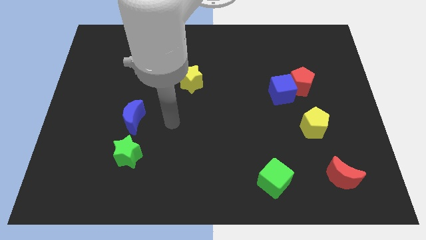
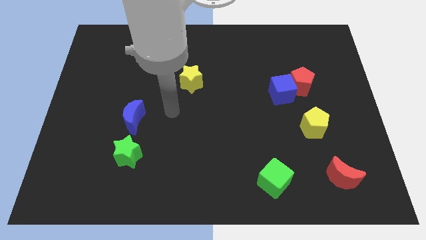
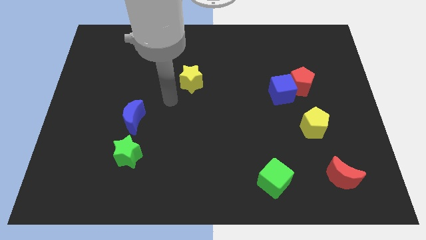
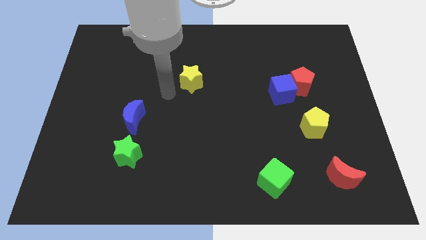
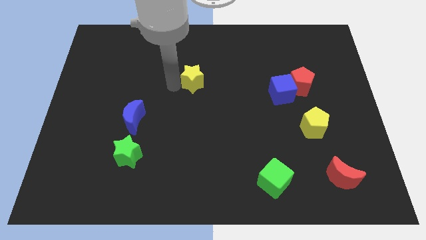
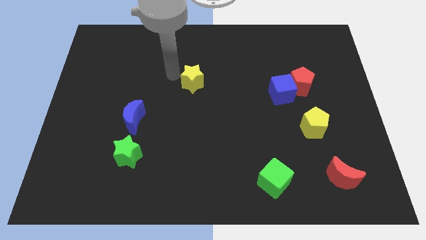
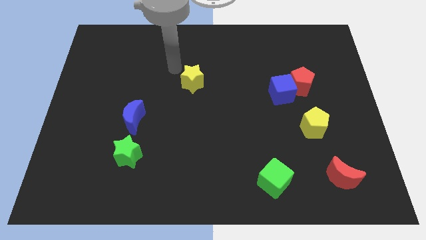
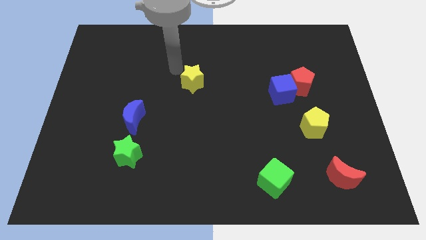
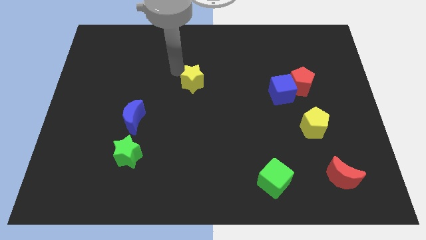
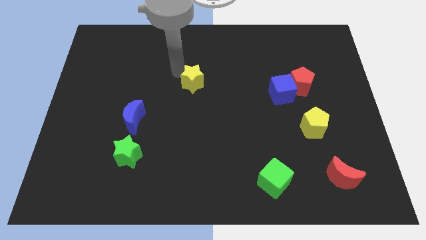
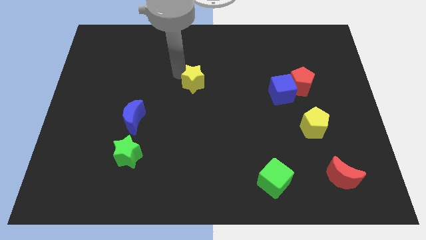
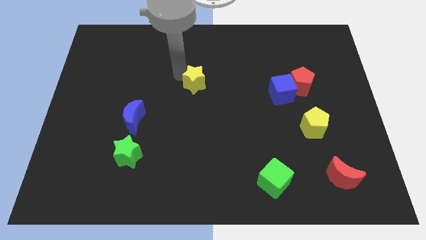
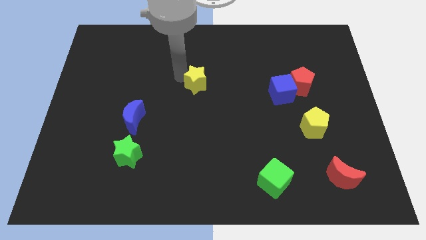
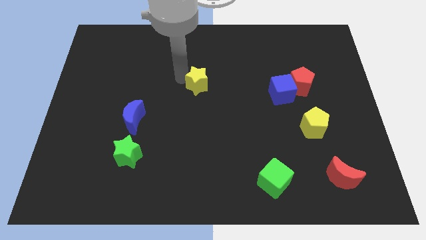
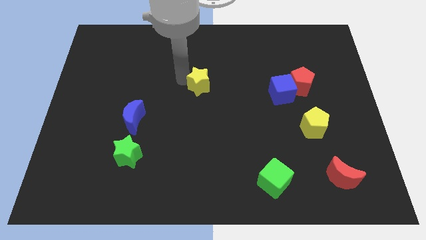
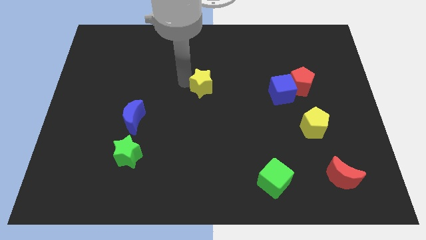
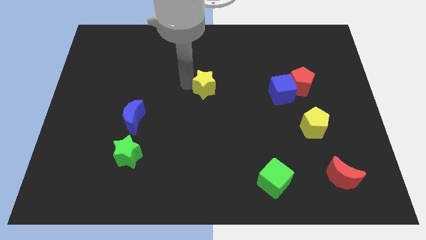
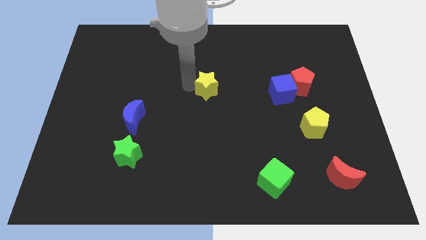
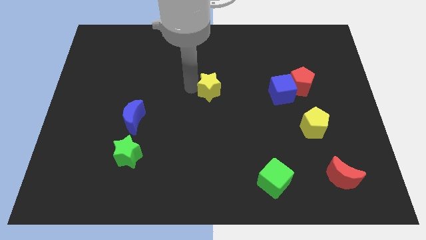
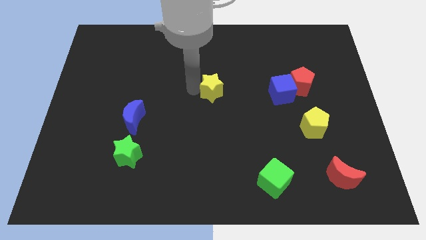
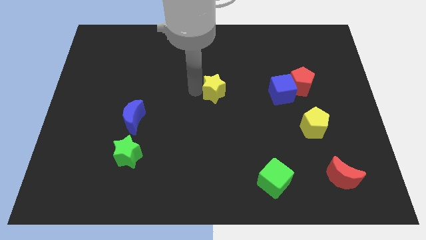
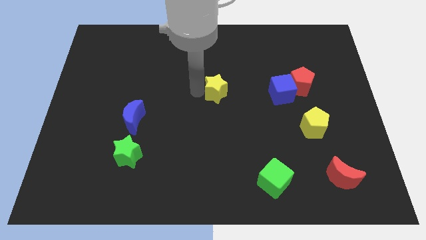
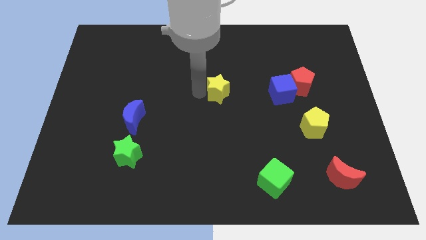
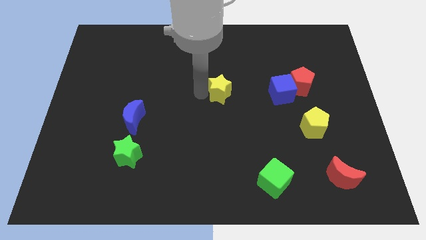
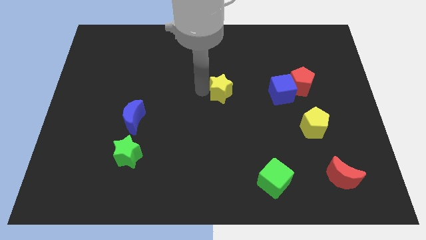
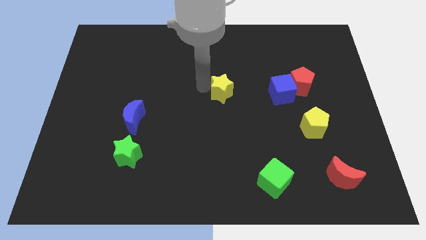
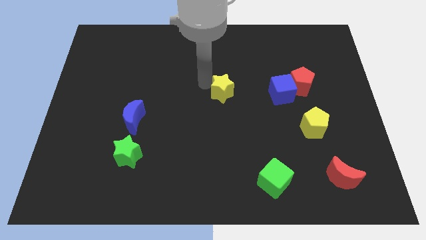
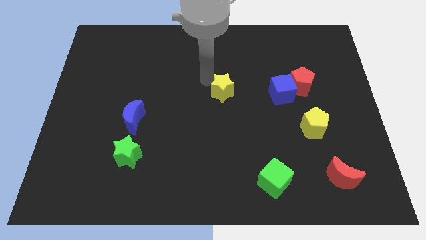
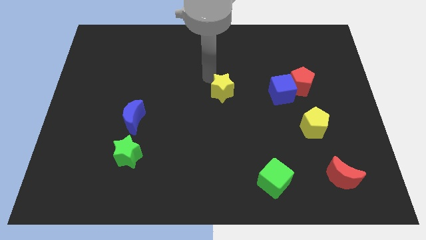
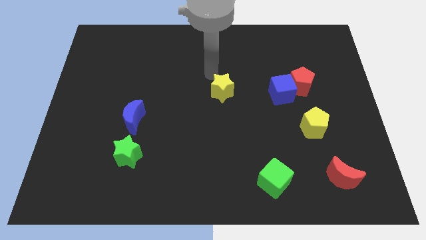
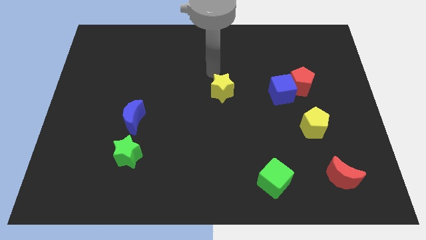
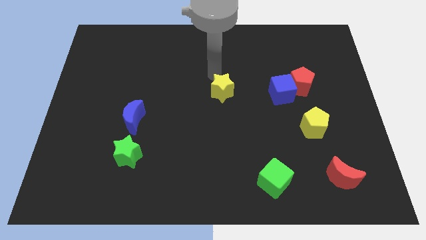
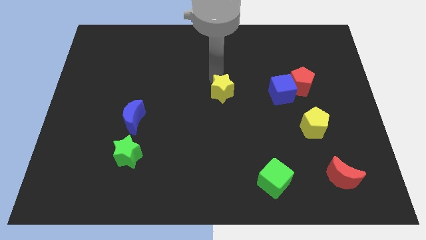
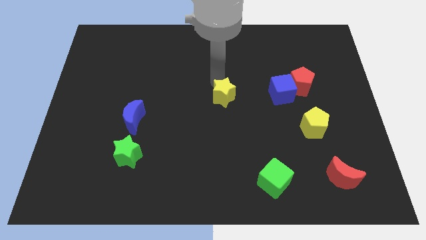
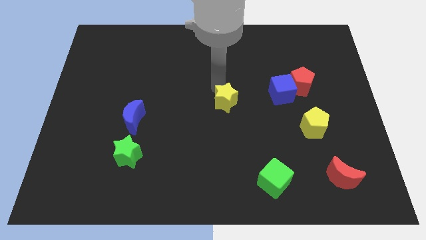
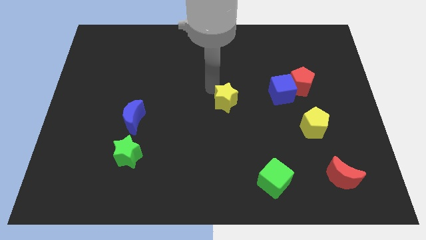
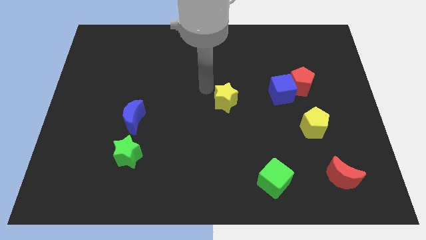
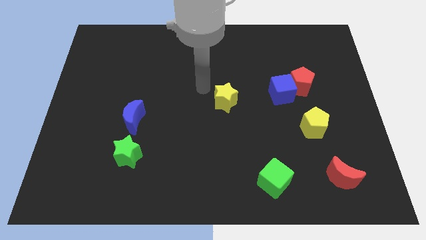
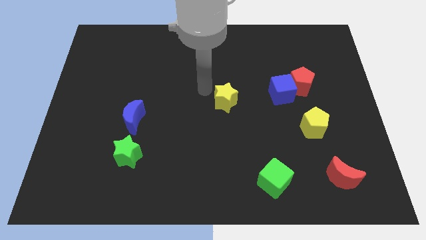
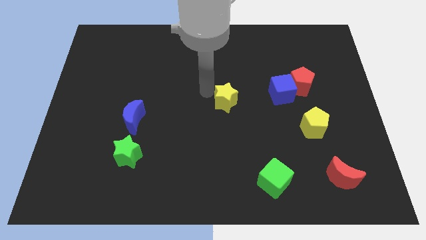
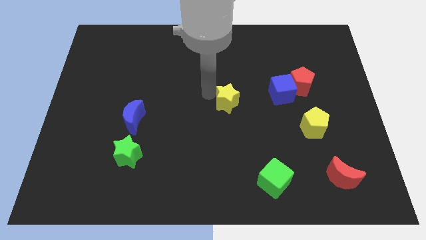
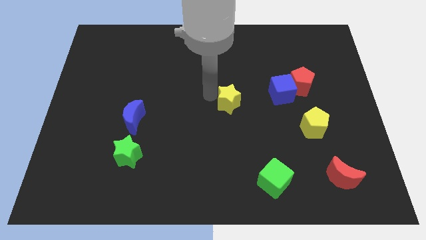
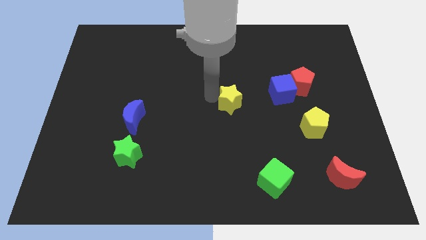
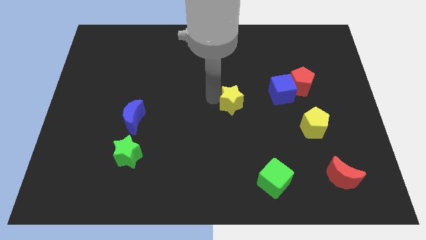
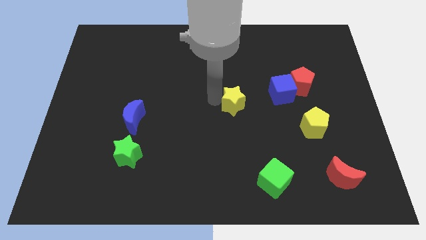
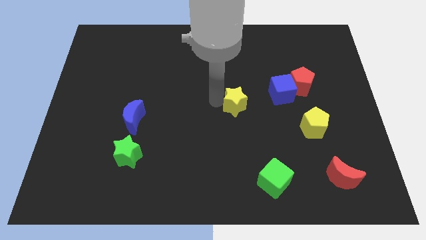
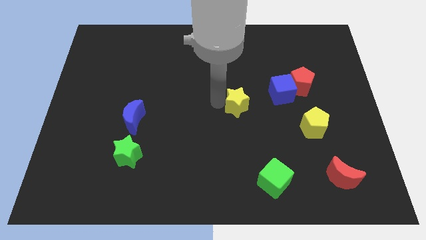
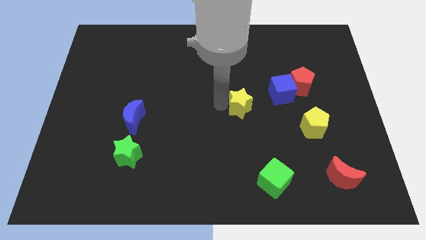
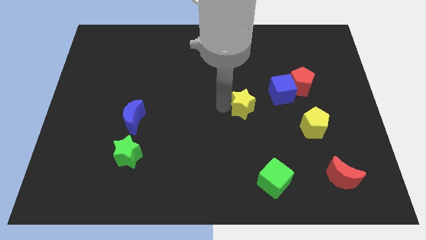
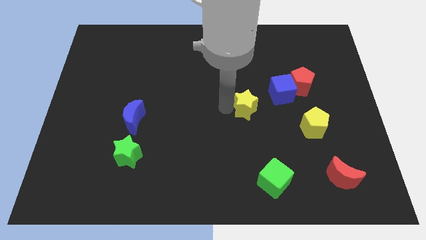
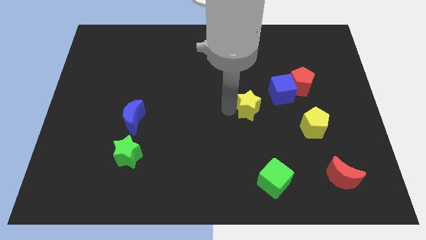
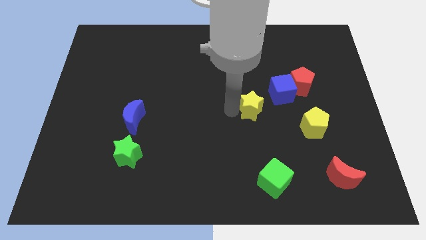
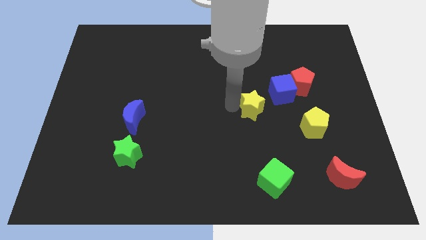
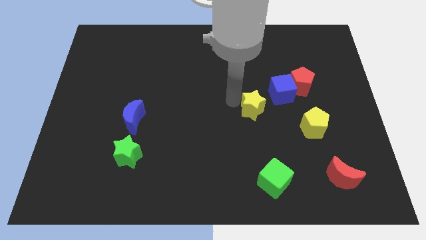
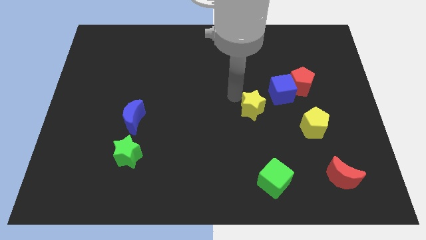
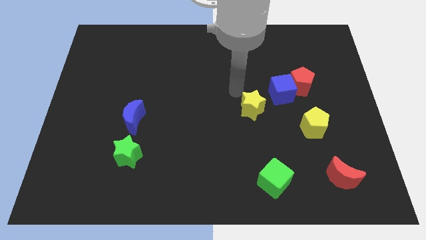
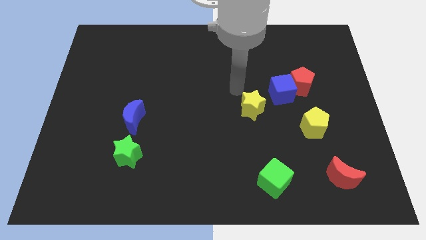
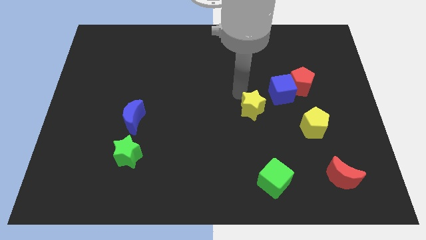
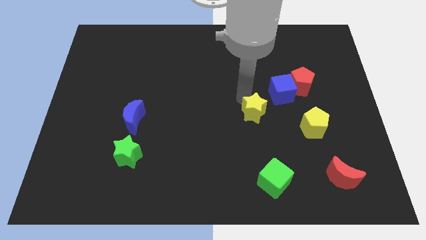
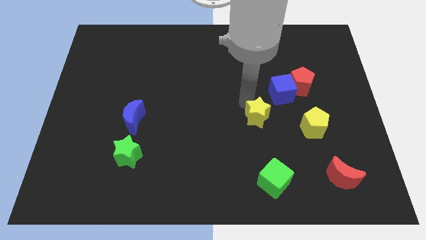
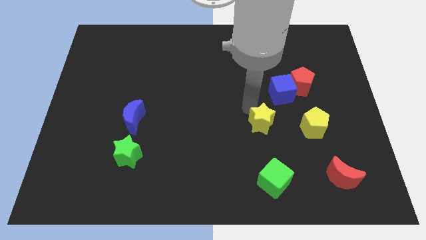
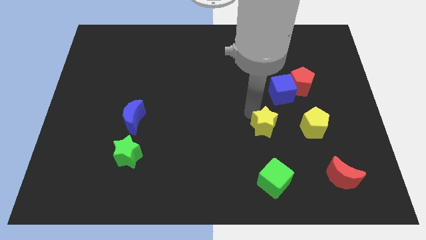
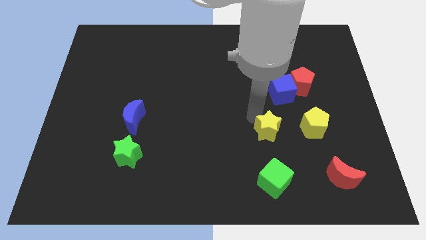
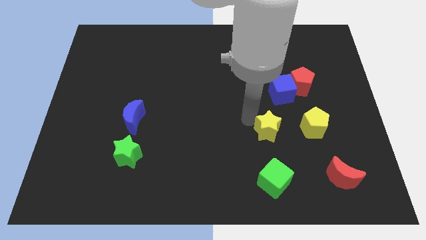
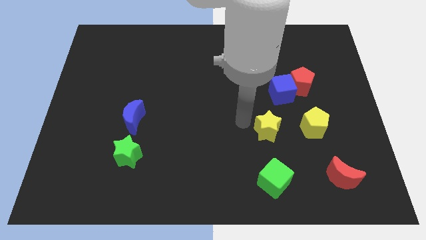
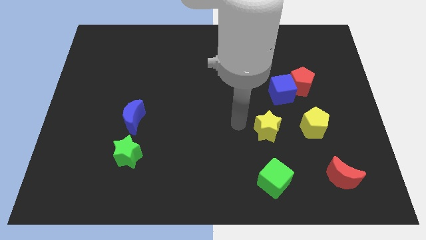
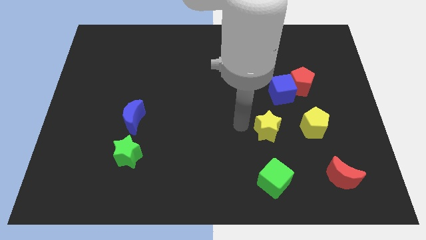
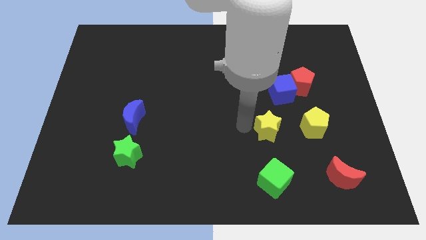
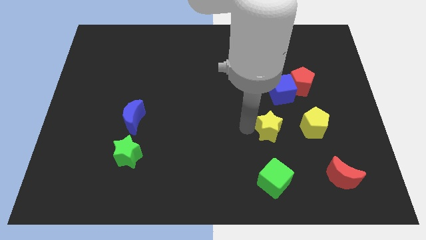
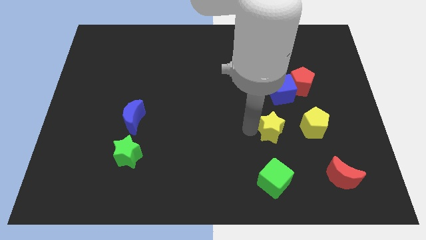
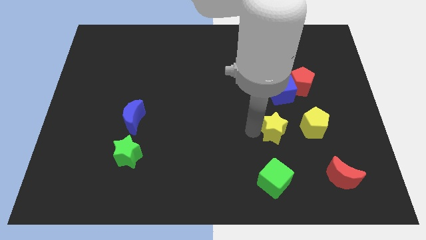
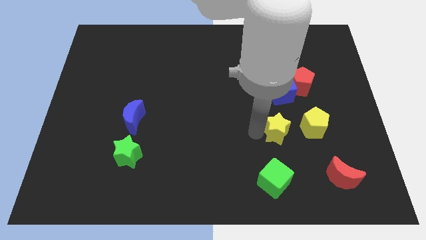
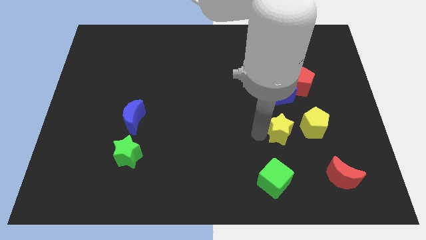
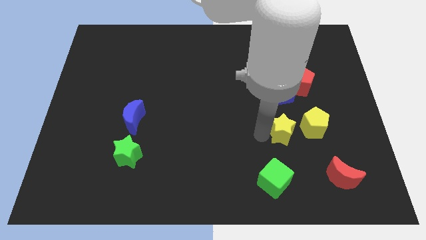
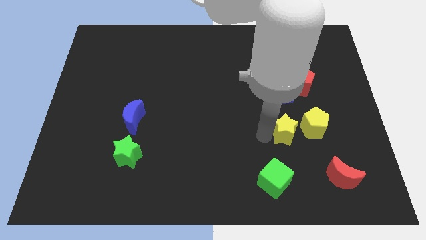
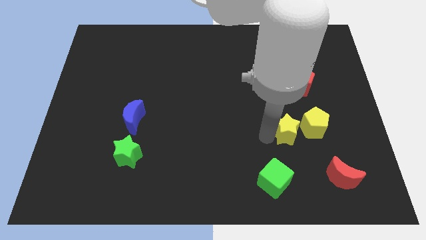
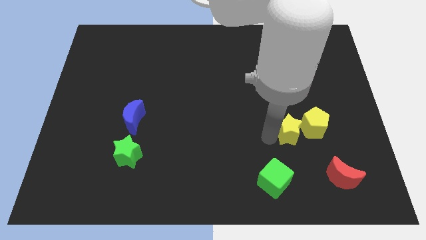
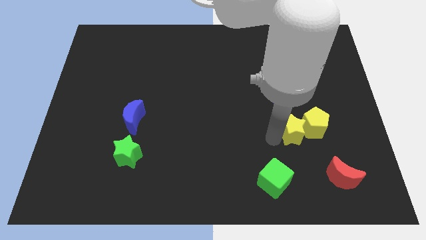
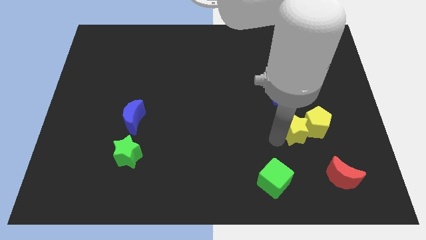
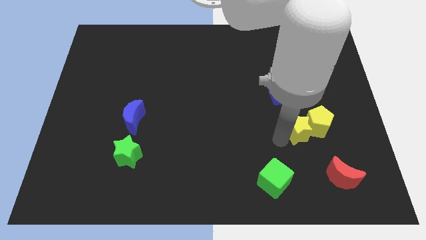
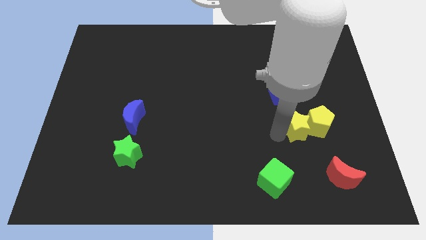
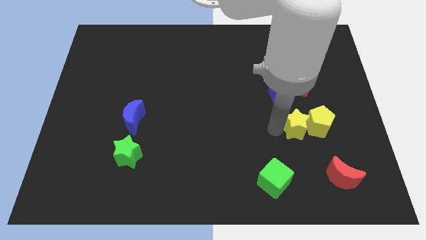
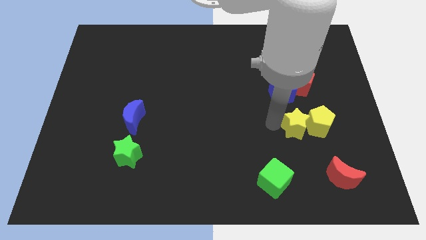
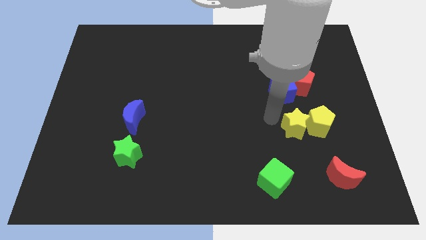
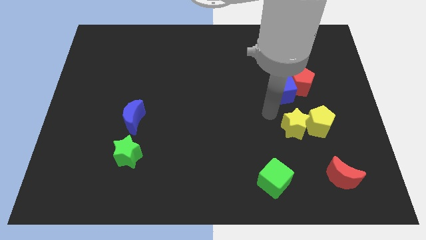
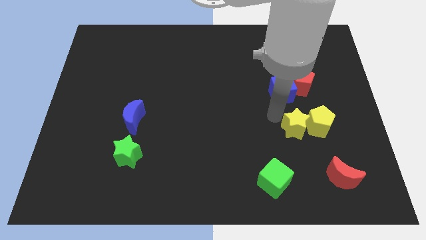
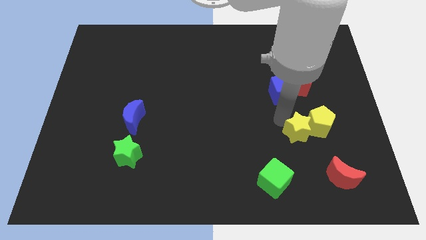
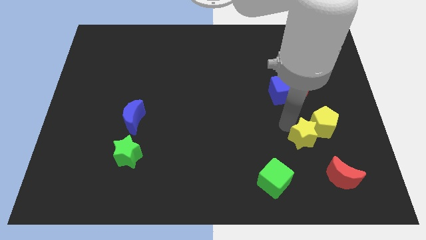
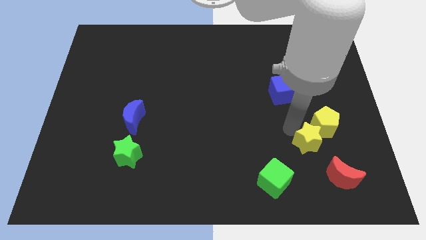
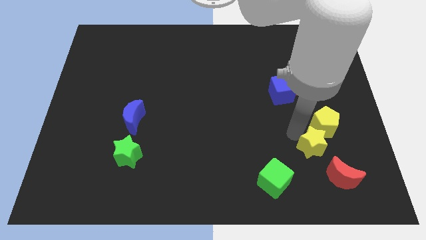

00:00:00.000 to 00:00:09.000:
slide the yellow star above the red moon
